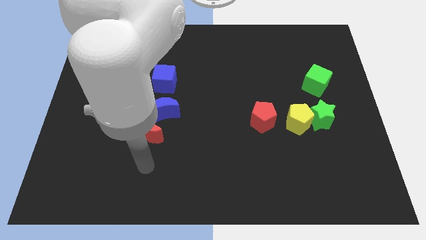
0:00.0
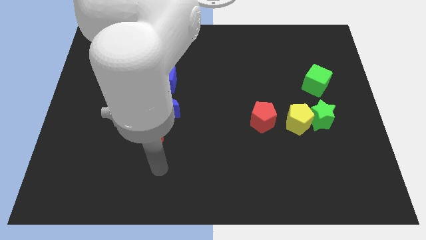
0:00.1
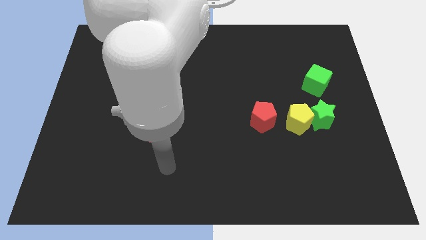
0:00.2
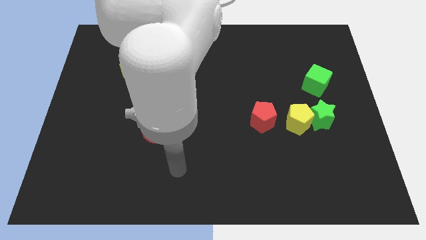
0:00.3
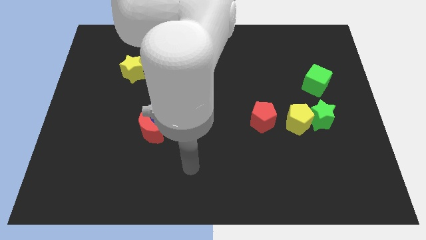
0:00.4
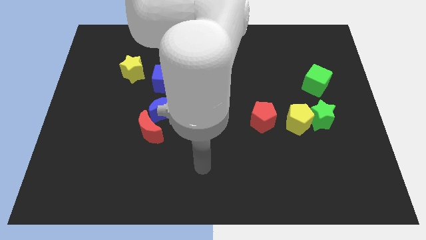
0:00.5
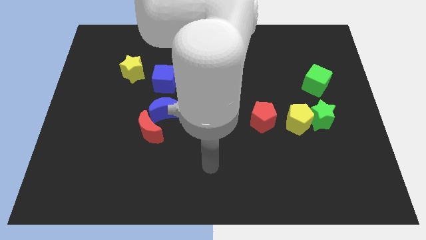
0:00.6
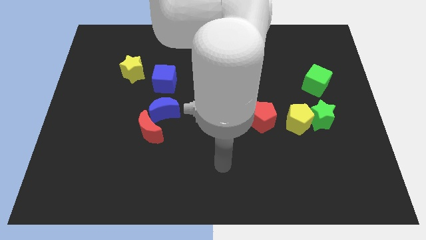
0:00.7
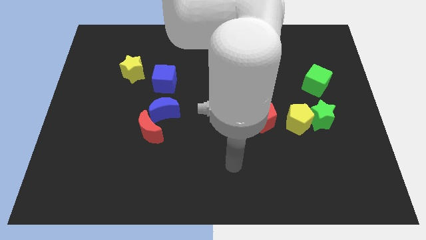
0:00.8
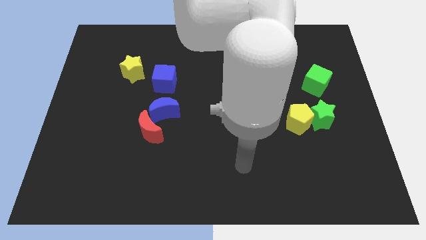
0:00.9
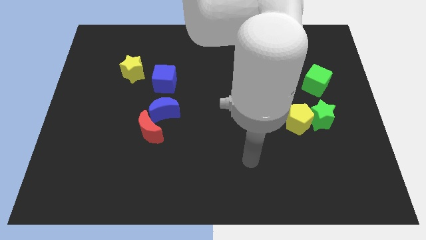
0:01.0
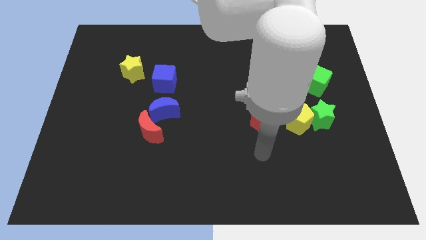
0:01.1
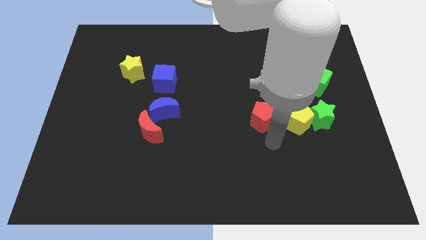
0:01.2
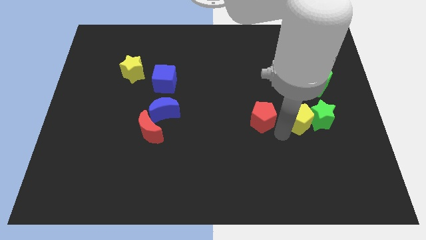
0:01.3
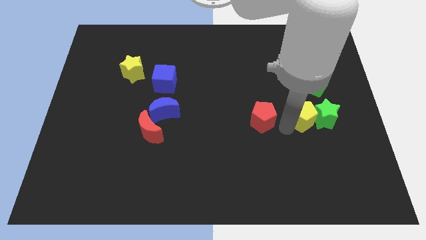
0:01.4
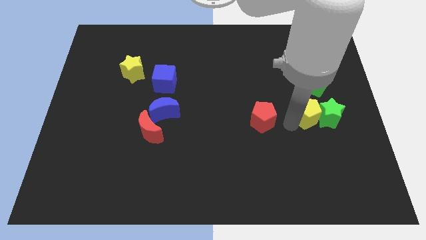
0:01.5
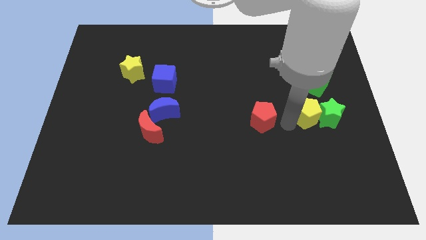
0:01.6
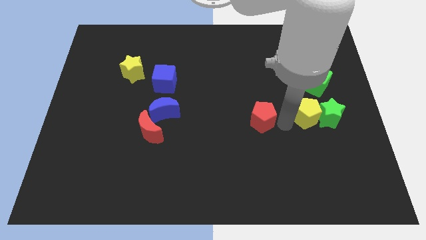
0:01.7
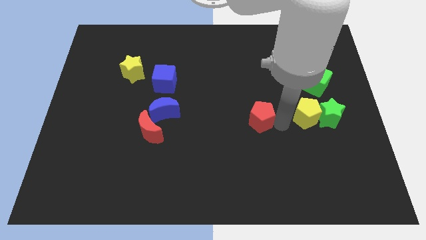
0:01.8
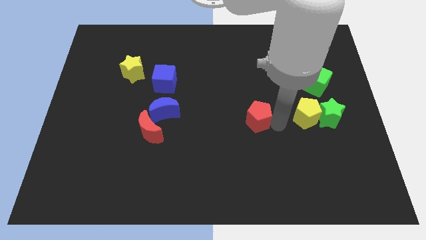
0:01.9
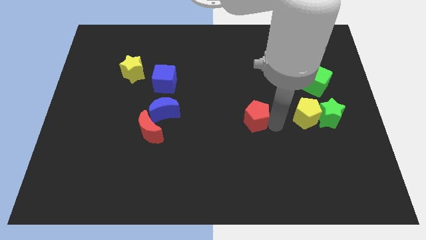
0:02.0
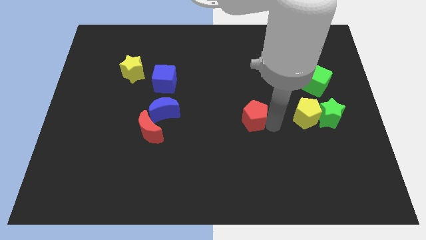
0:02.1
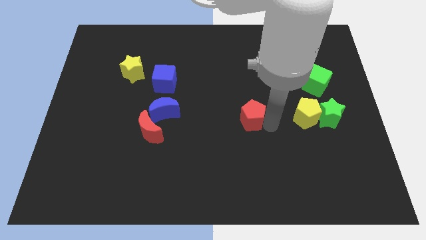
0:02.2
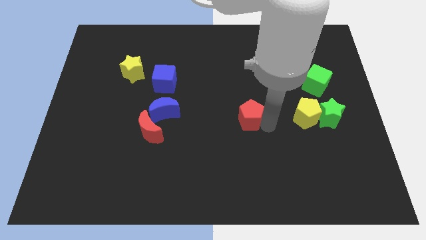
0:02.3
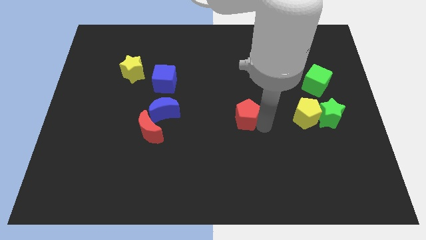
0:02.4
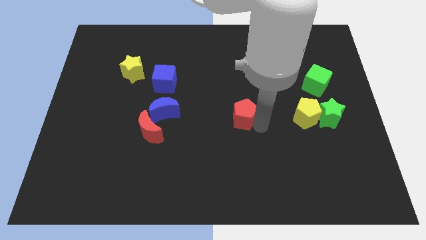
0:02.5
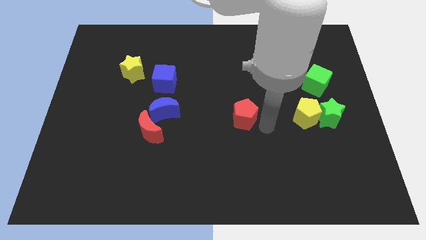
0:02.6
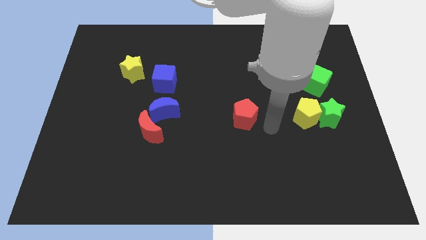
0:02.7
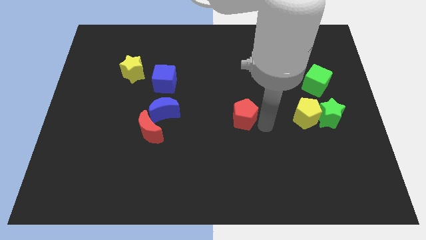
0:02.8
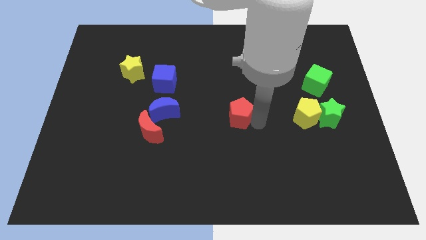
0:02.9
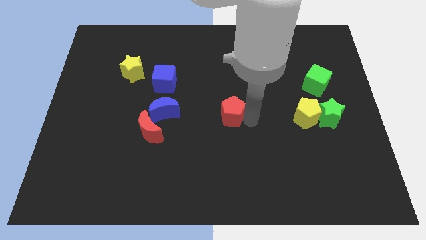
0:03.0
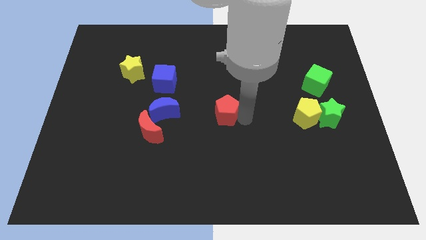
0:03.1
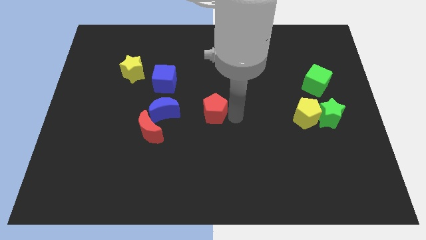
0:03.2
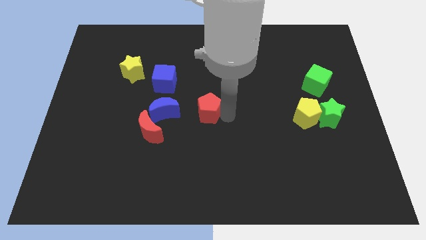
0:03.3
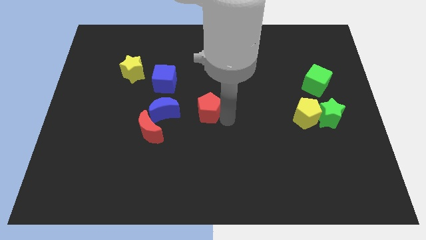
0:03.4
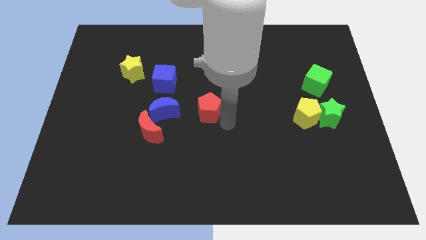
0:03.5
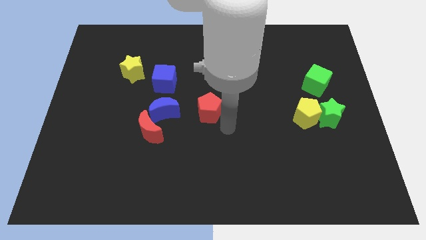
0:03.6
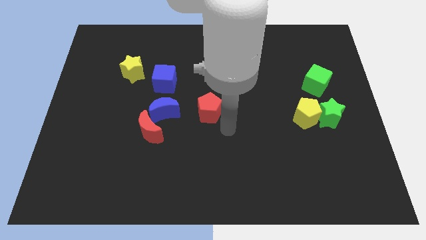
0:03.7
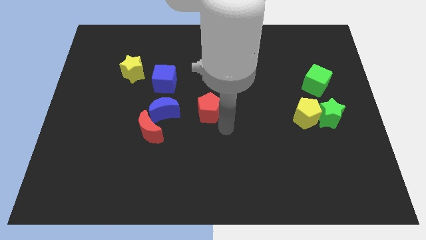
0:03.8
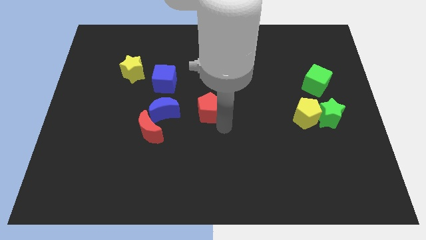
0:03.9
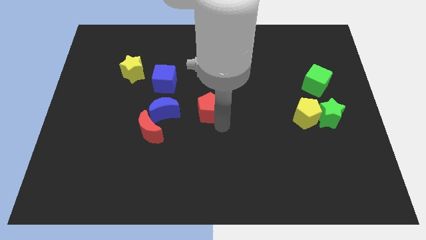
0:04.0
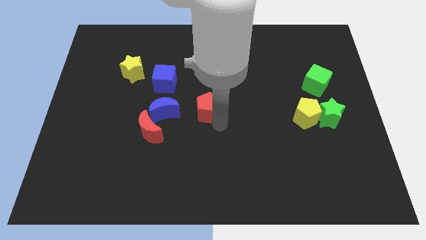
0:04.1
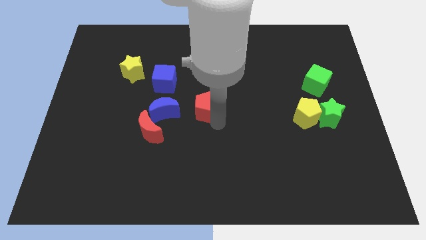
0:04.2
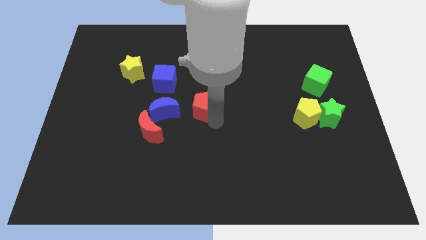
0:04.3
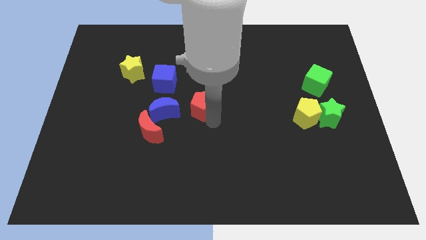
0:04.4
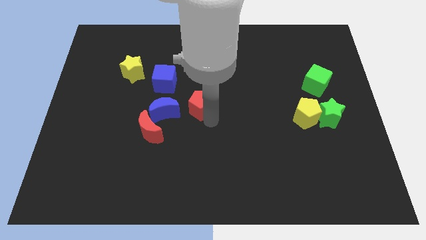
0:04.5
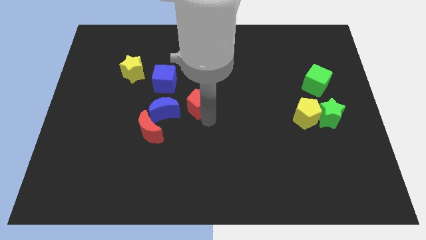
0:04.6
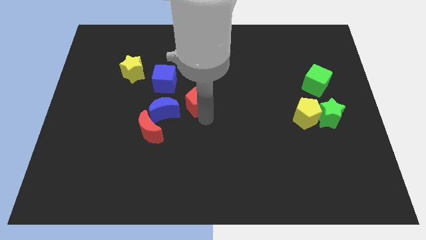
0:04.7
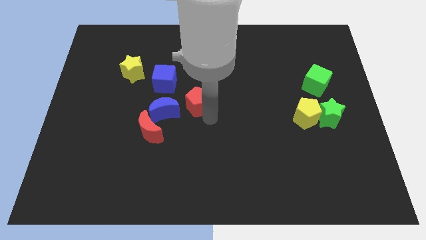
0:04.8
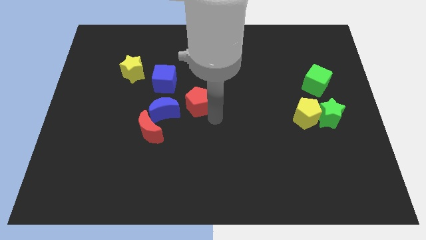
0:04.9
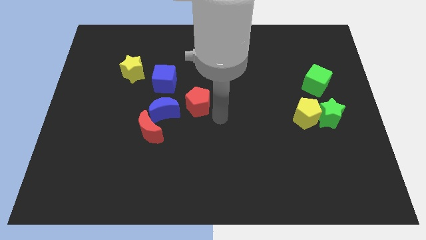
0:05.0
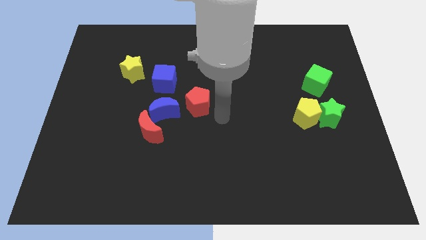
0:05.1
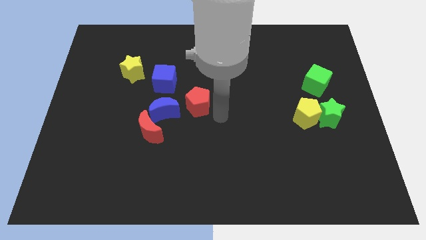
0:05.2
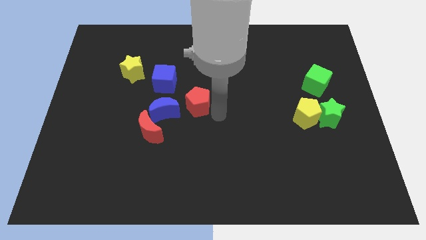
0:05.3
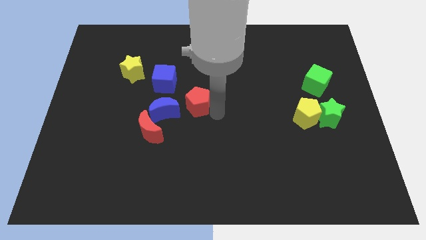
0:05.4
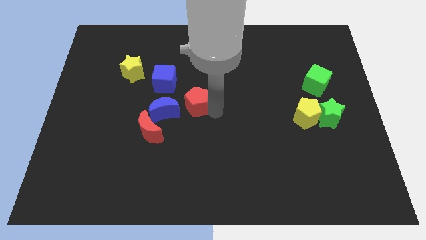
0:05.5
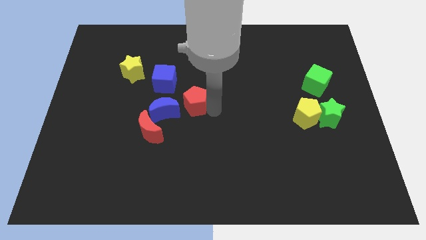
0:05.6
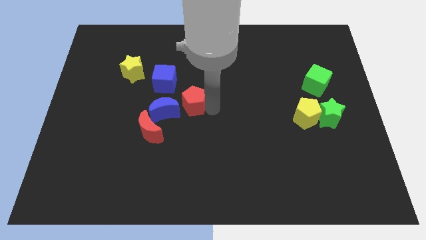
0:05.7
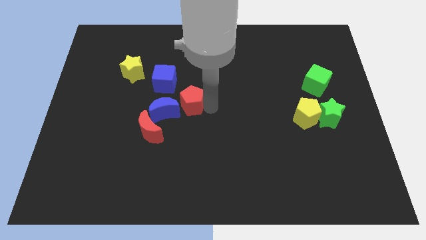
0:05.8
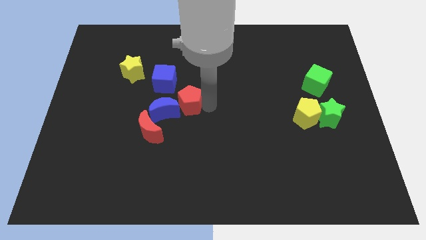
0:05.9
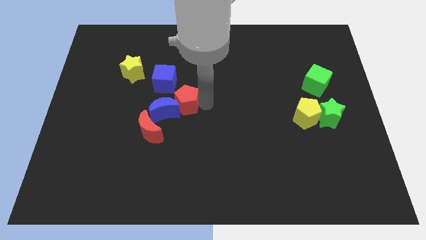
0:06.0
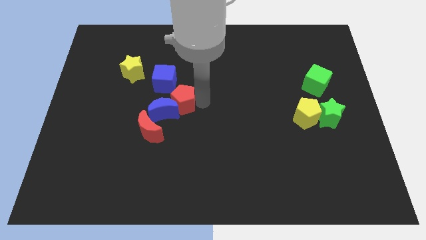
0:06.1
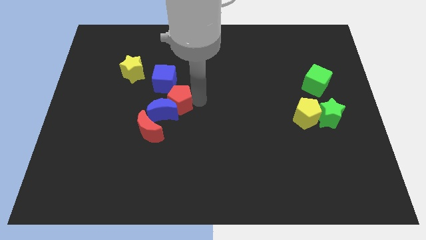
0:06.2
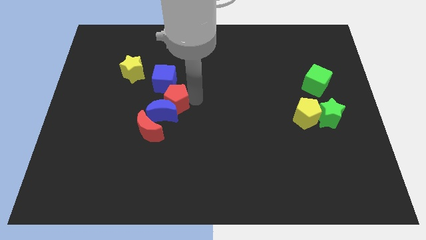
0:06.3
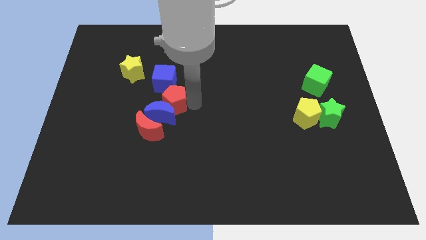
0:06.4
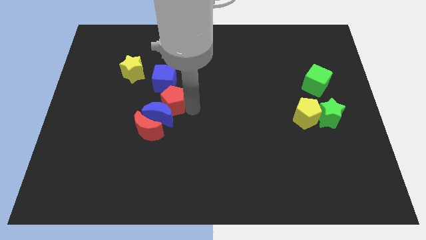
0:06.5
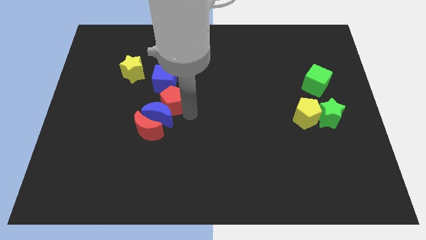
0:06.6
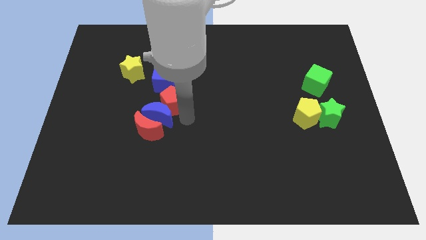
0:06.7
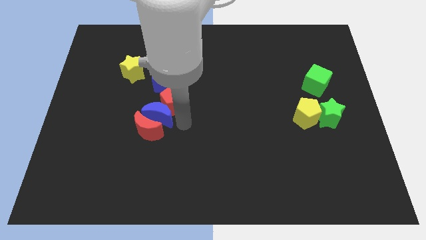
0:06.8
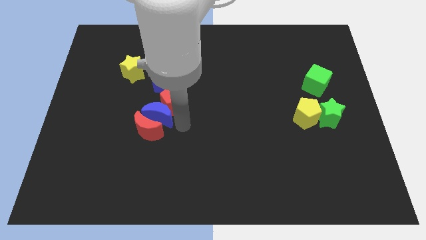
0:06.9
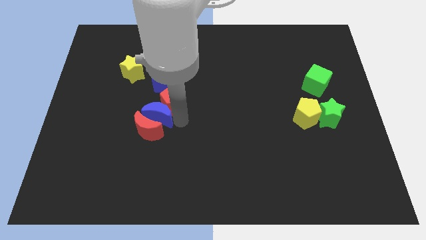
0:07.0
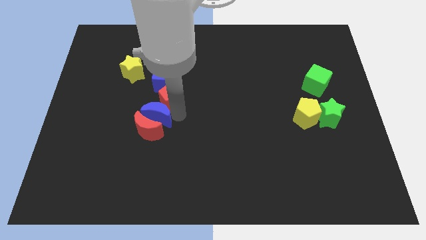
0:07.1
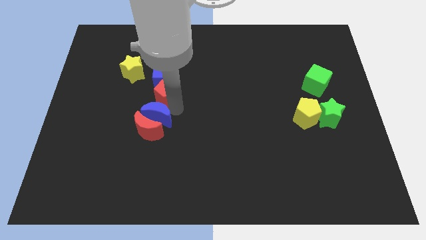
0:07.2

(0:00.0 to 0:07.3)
slide the red pentagon to the blue cube
